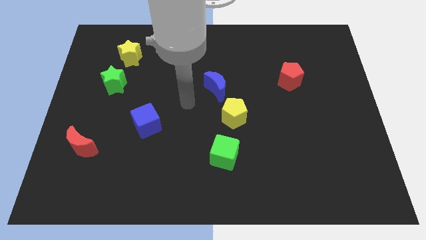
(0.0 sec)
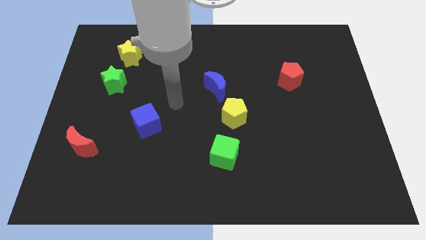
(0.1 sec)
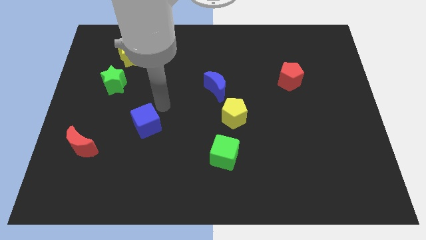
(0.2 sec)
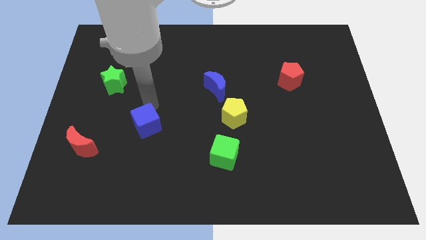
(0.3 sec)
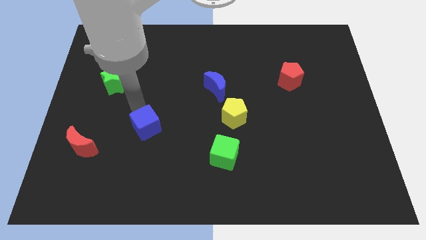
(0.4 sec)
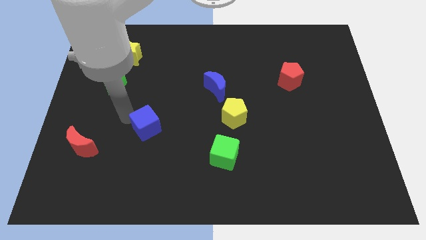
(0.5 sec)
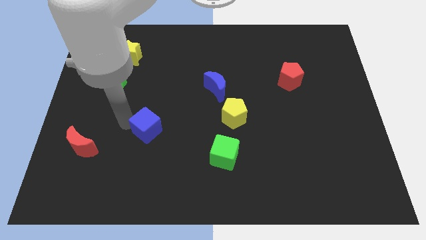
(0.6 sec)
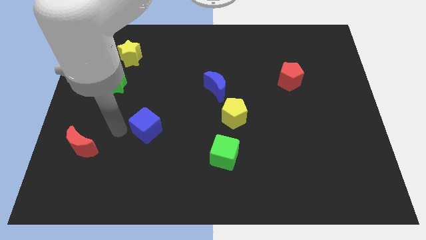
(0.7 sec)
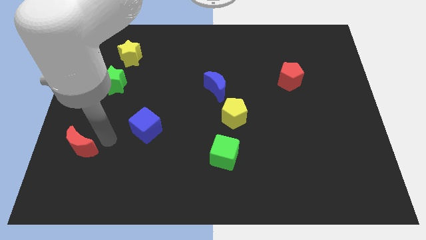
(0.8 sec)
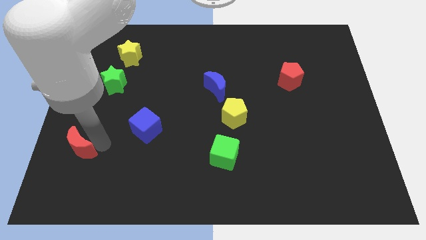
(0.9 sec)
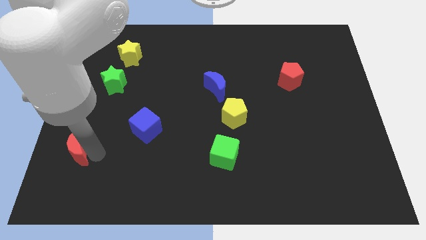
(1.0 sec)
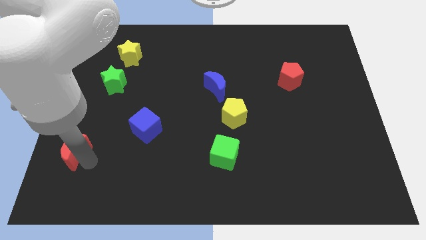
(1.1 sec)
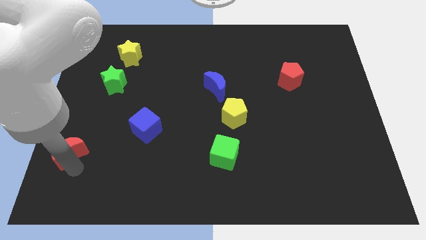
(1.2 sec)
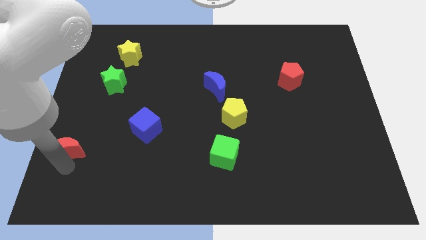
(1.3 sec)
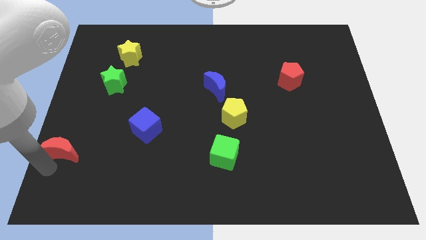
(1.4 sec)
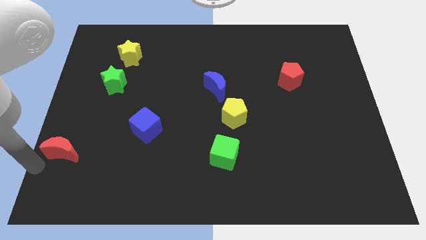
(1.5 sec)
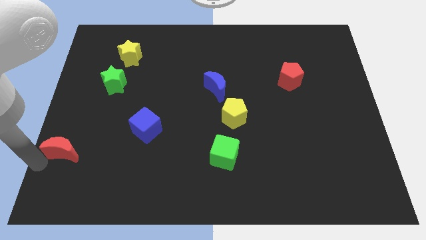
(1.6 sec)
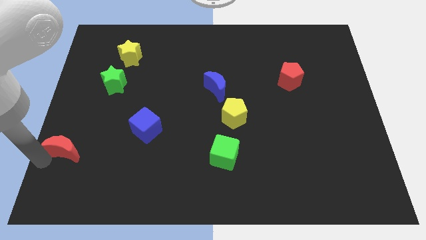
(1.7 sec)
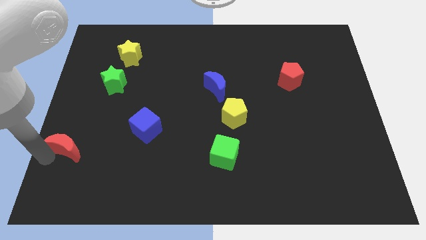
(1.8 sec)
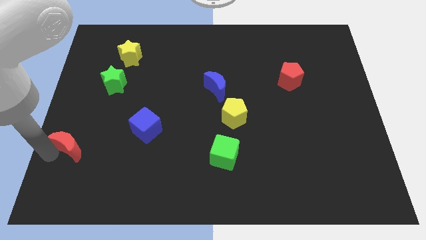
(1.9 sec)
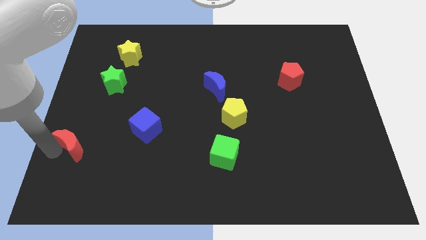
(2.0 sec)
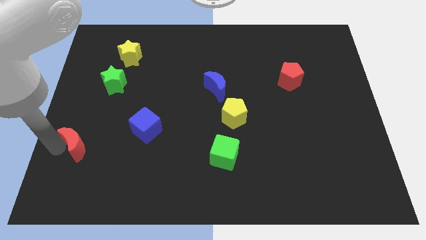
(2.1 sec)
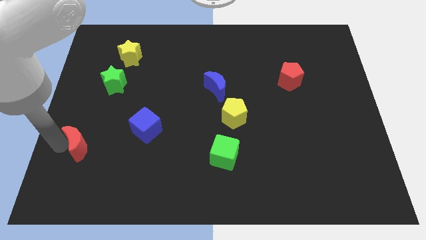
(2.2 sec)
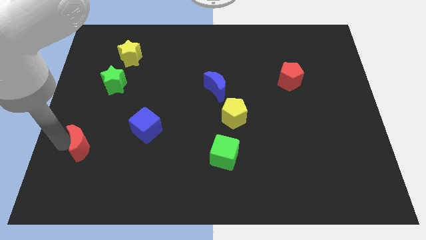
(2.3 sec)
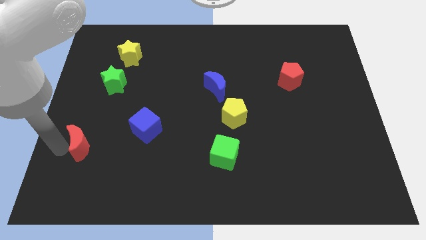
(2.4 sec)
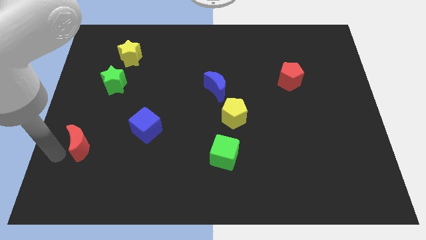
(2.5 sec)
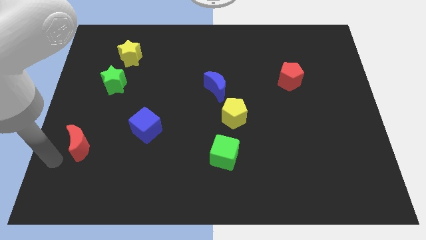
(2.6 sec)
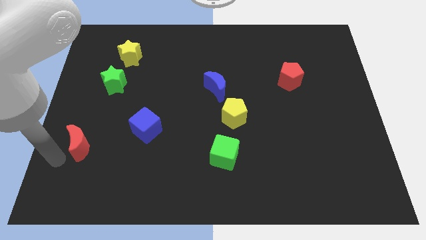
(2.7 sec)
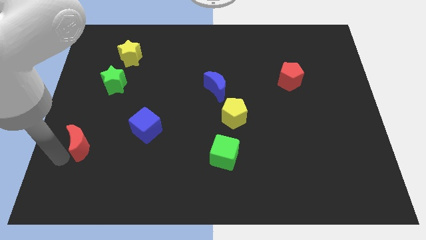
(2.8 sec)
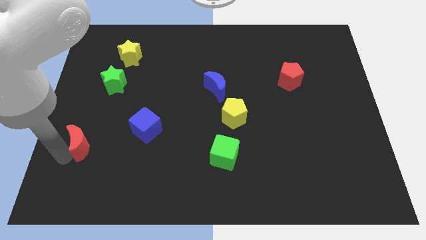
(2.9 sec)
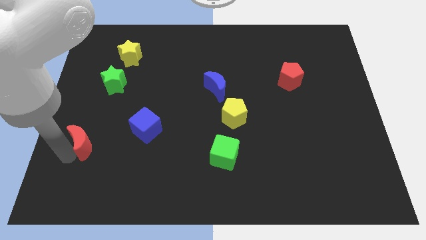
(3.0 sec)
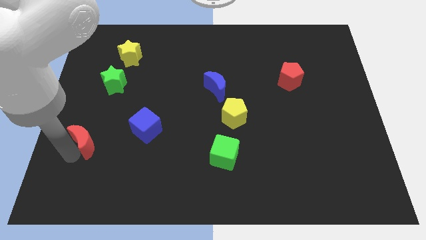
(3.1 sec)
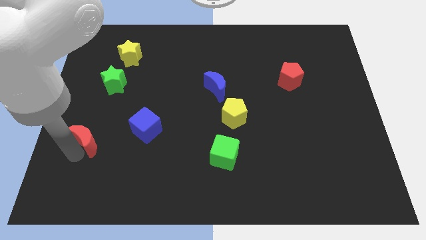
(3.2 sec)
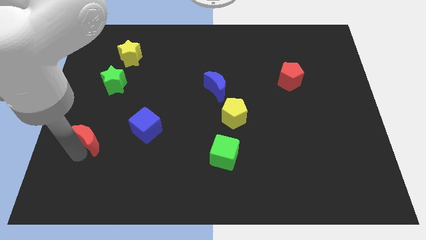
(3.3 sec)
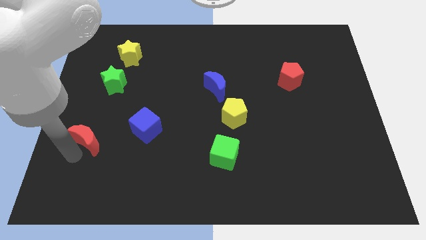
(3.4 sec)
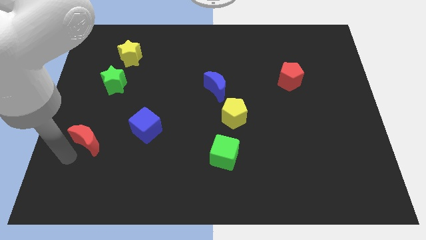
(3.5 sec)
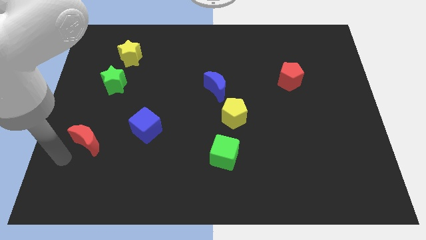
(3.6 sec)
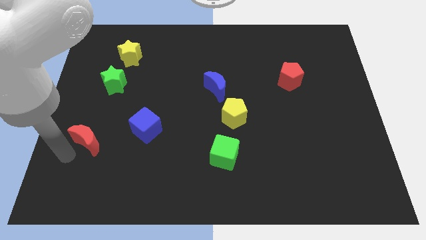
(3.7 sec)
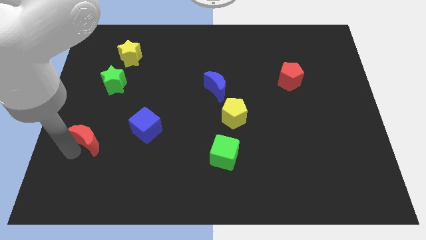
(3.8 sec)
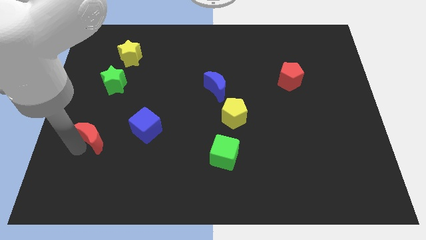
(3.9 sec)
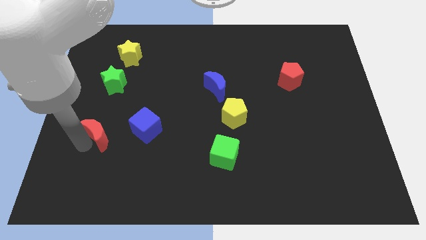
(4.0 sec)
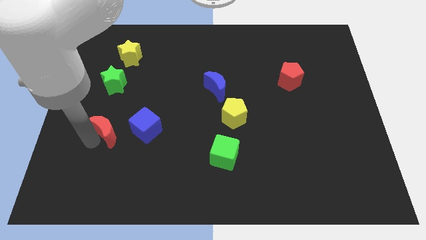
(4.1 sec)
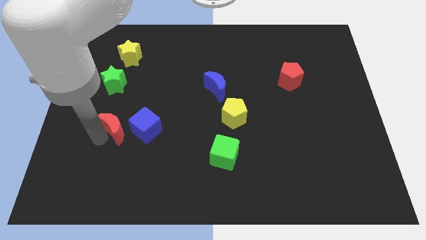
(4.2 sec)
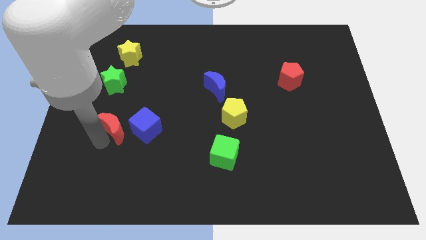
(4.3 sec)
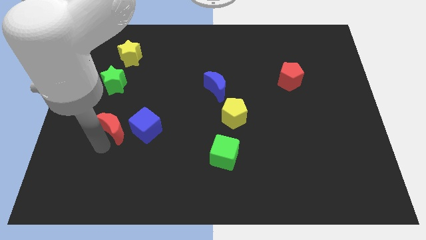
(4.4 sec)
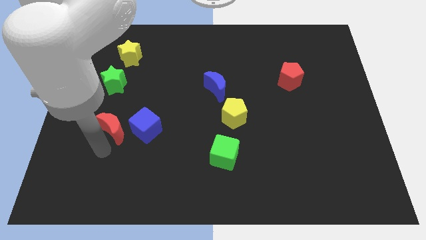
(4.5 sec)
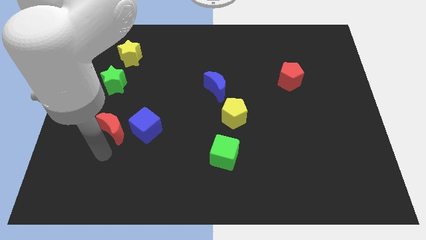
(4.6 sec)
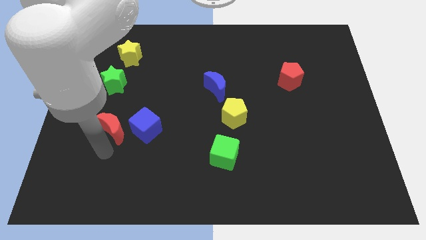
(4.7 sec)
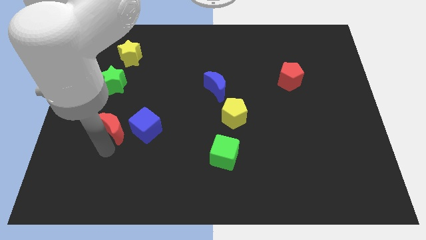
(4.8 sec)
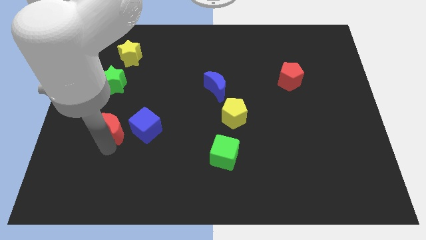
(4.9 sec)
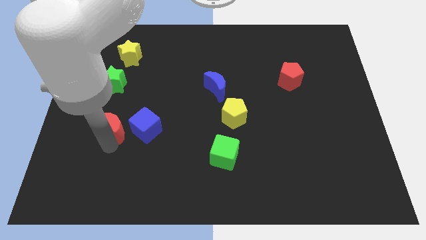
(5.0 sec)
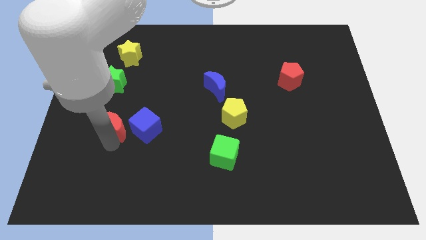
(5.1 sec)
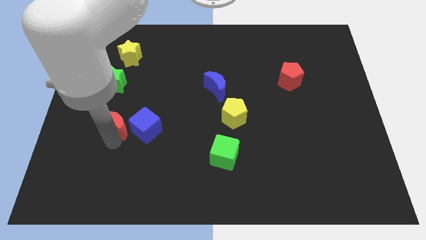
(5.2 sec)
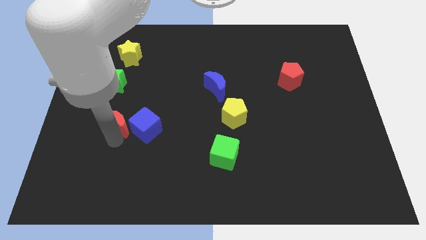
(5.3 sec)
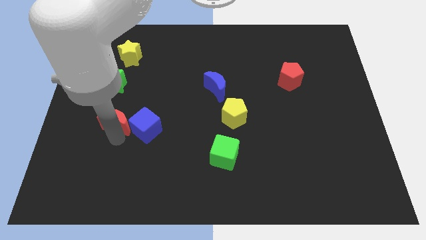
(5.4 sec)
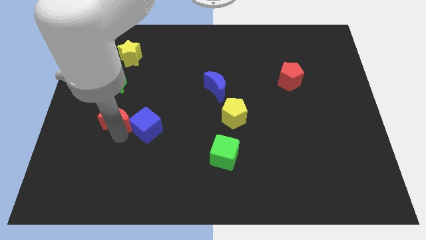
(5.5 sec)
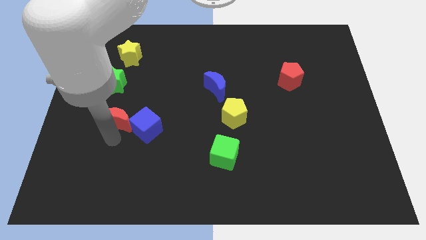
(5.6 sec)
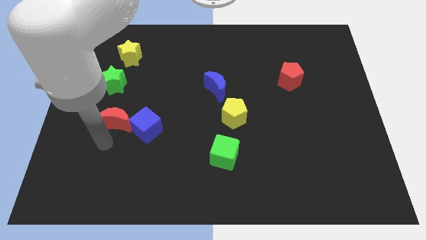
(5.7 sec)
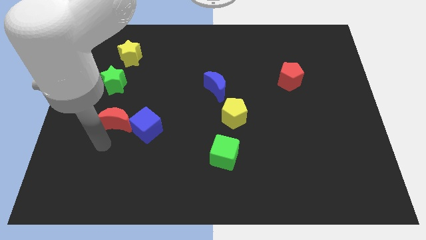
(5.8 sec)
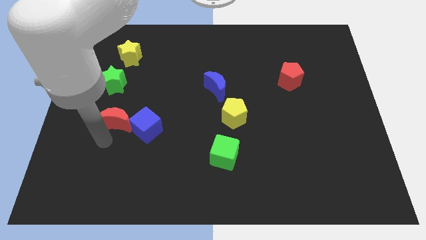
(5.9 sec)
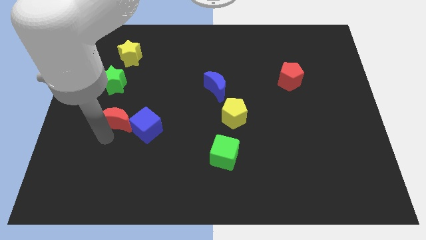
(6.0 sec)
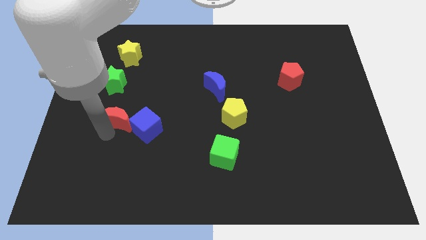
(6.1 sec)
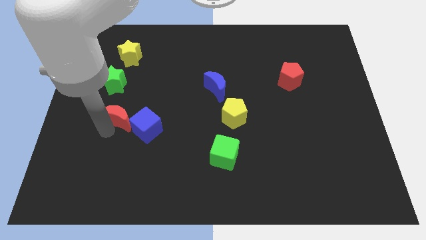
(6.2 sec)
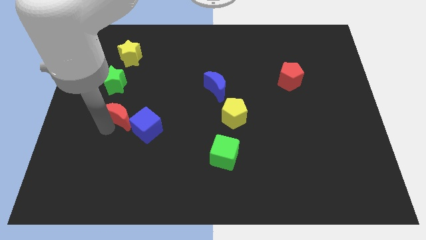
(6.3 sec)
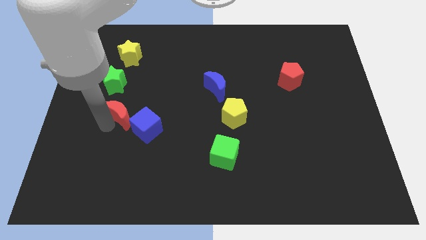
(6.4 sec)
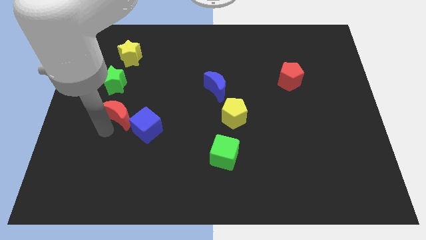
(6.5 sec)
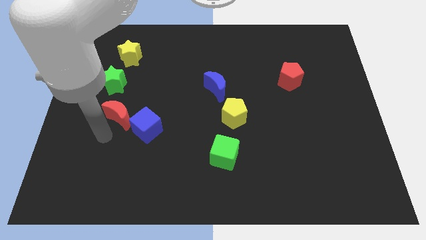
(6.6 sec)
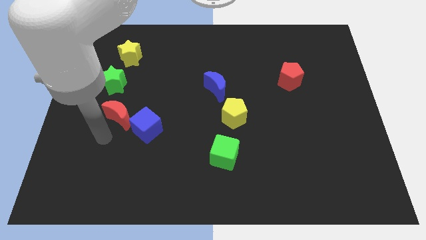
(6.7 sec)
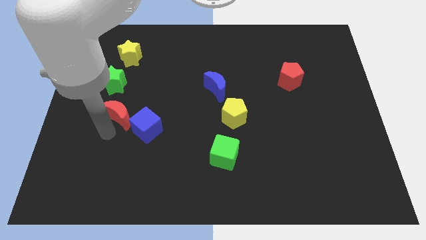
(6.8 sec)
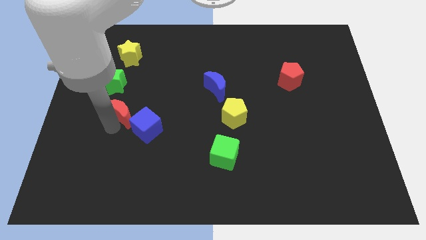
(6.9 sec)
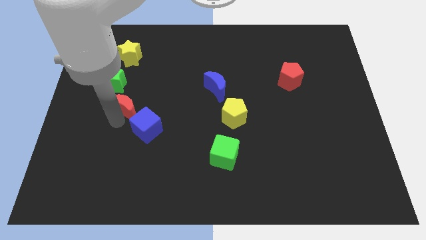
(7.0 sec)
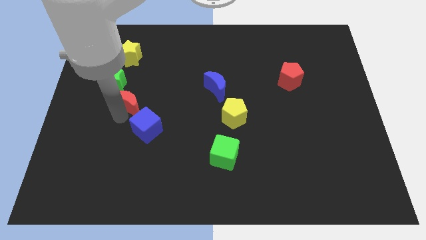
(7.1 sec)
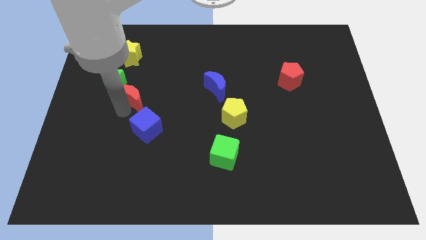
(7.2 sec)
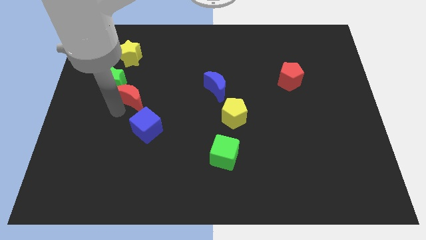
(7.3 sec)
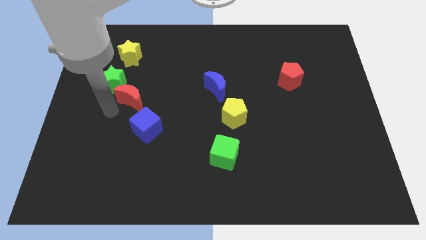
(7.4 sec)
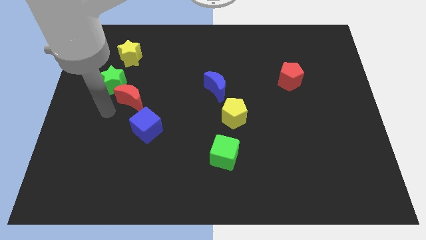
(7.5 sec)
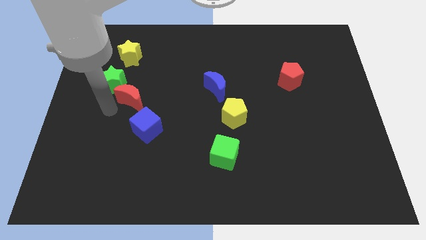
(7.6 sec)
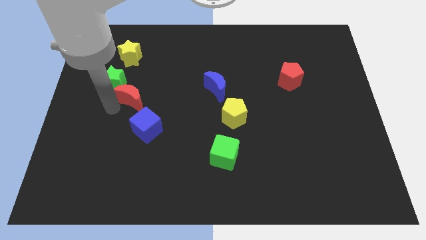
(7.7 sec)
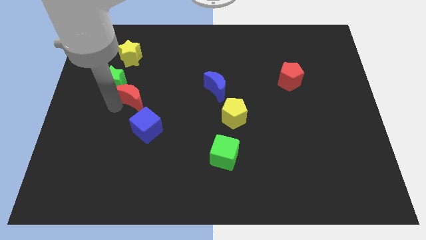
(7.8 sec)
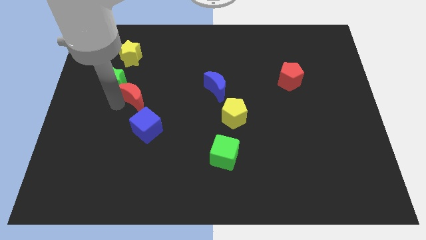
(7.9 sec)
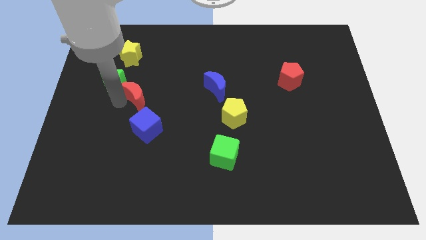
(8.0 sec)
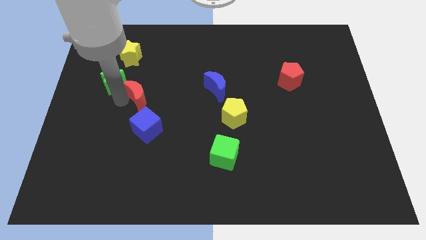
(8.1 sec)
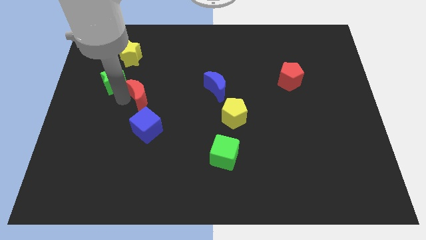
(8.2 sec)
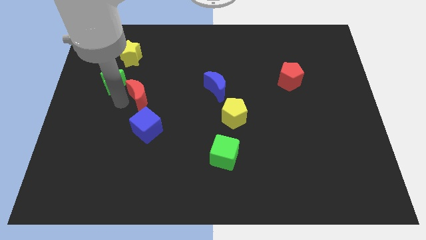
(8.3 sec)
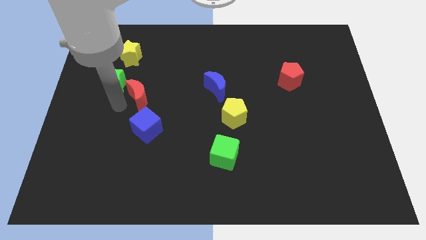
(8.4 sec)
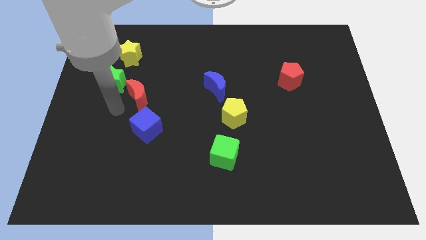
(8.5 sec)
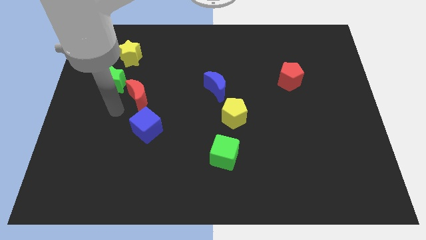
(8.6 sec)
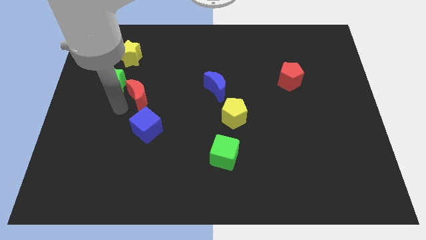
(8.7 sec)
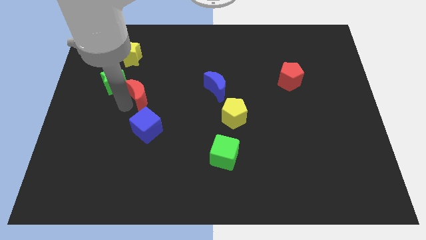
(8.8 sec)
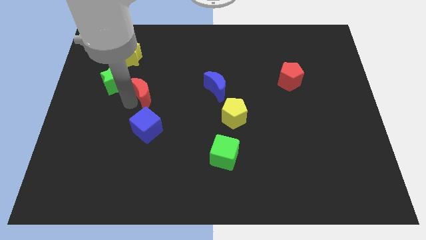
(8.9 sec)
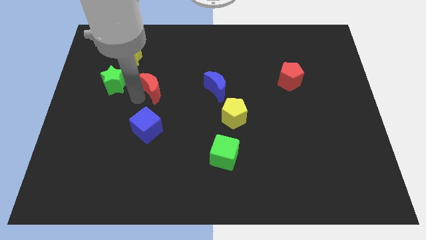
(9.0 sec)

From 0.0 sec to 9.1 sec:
move the red moon up and to the right
